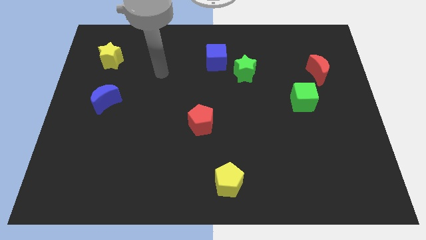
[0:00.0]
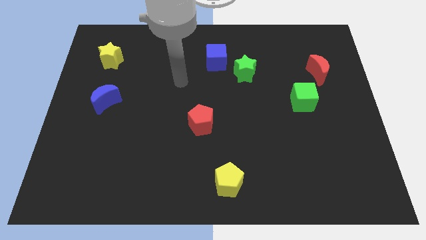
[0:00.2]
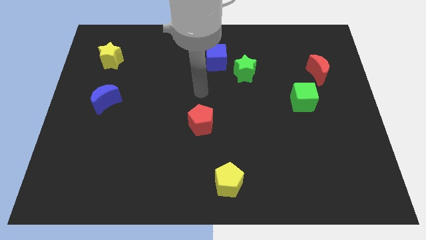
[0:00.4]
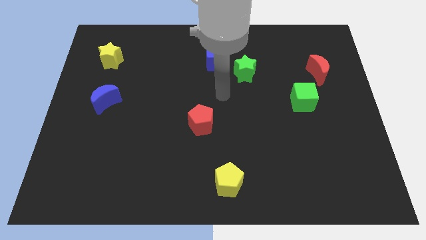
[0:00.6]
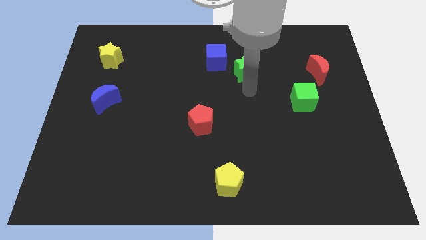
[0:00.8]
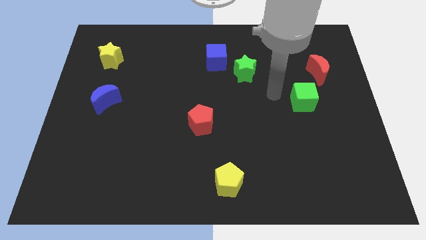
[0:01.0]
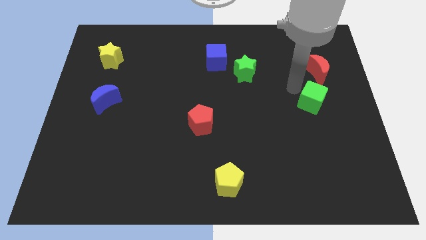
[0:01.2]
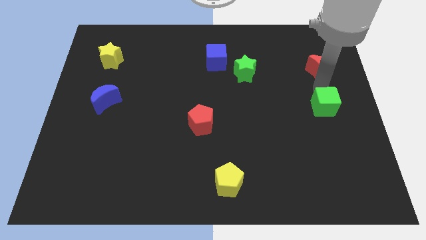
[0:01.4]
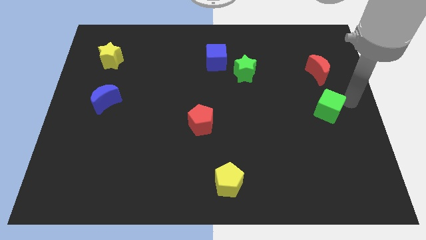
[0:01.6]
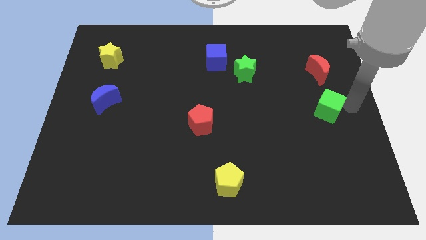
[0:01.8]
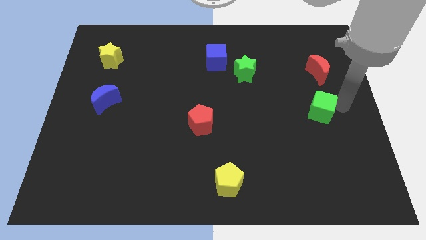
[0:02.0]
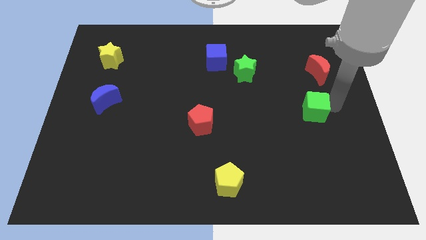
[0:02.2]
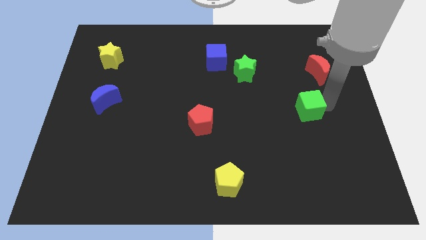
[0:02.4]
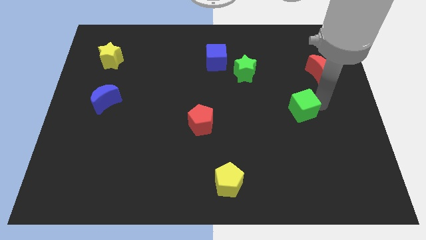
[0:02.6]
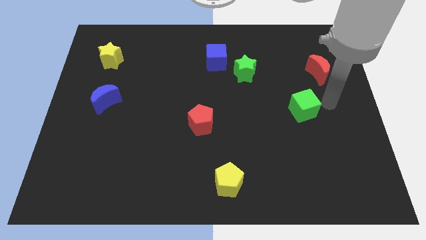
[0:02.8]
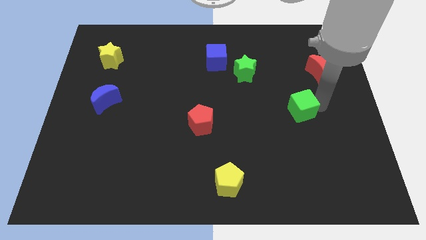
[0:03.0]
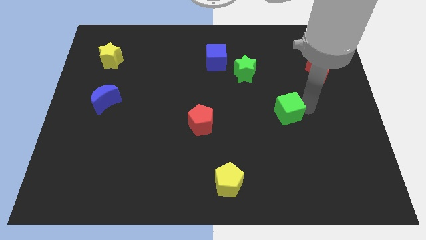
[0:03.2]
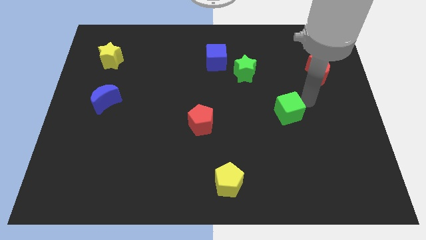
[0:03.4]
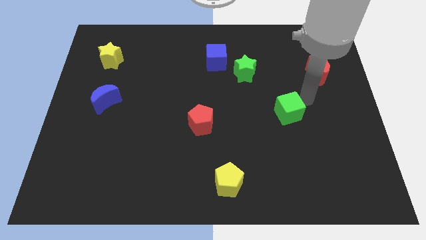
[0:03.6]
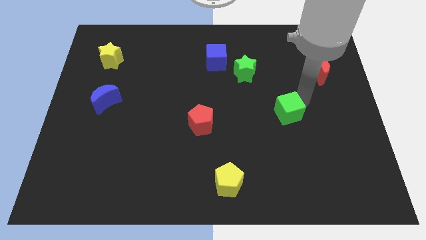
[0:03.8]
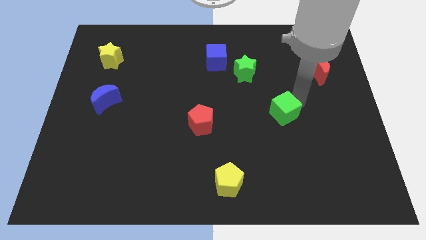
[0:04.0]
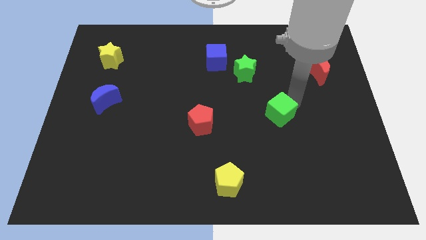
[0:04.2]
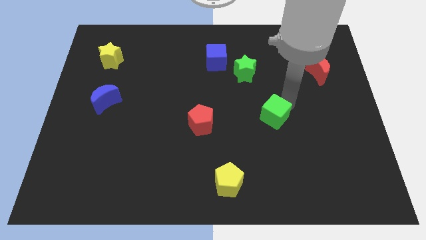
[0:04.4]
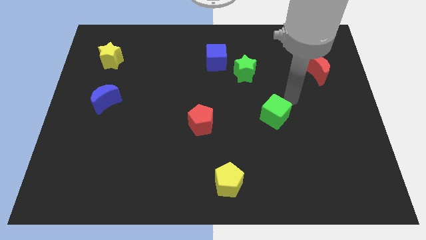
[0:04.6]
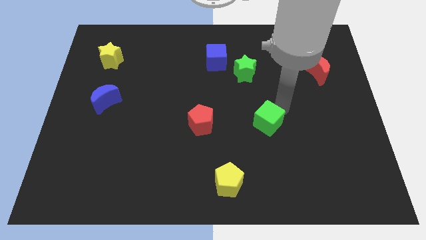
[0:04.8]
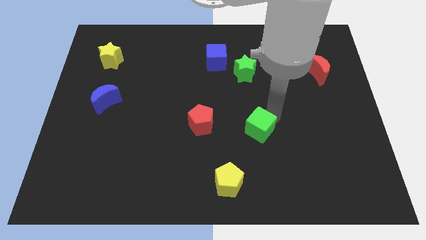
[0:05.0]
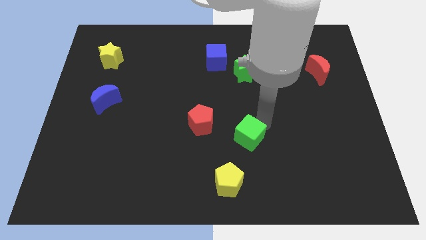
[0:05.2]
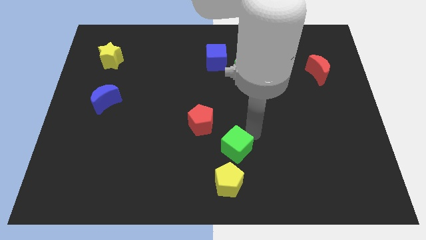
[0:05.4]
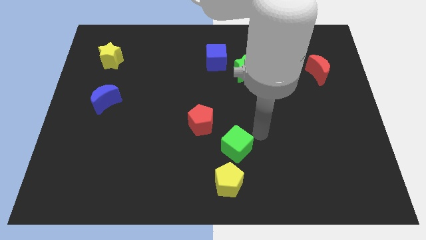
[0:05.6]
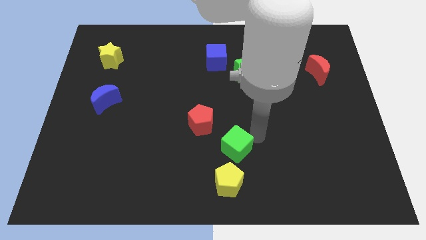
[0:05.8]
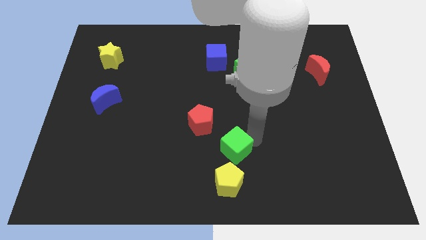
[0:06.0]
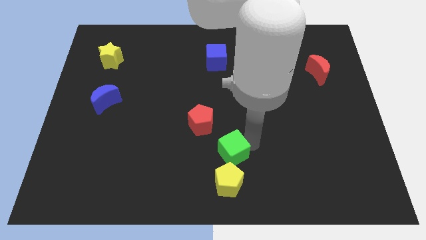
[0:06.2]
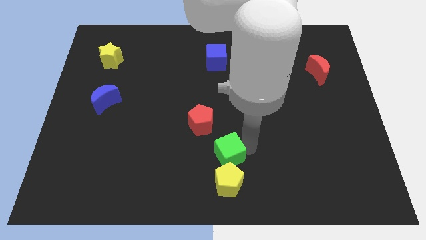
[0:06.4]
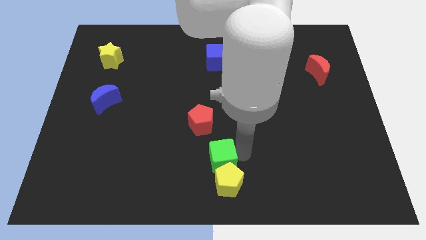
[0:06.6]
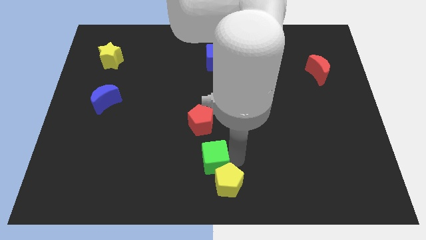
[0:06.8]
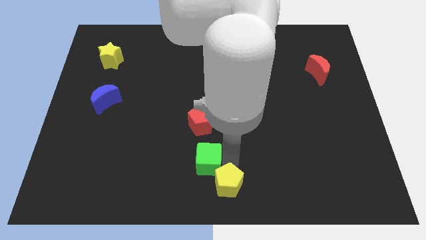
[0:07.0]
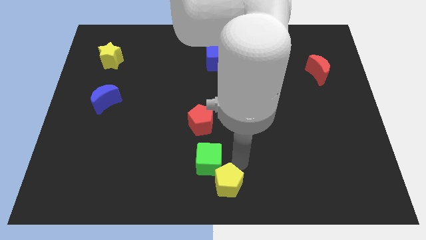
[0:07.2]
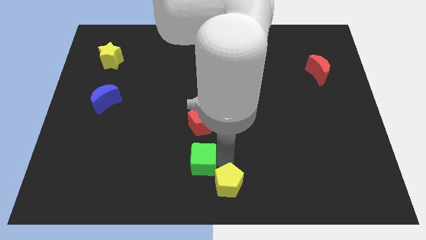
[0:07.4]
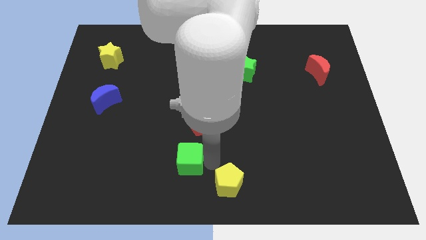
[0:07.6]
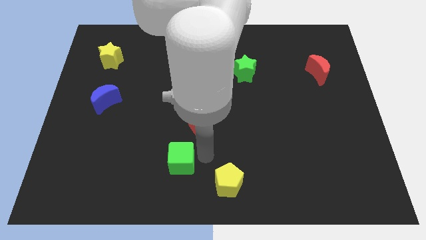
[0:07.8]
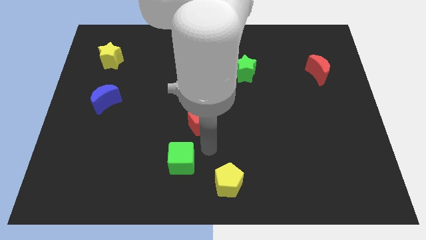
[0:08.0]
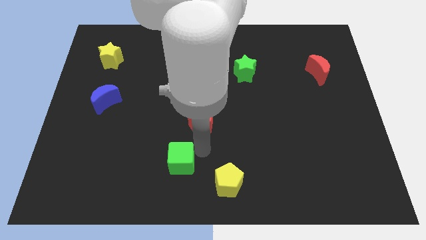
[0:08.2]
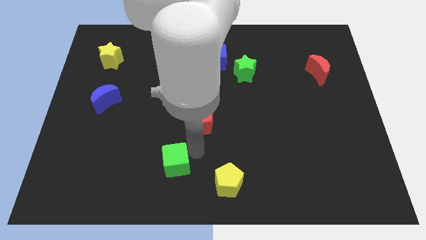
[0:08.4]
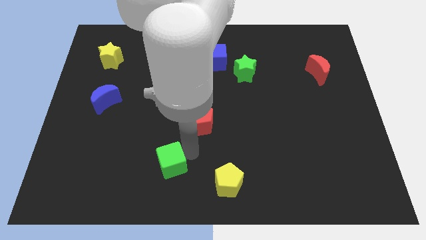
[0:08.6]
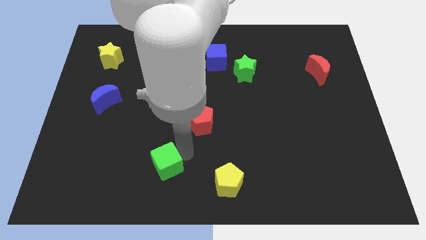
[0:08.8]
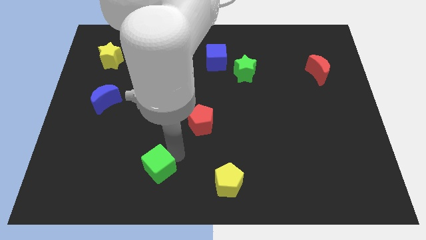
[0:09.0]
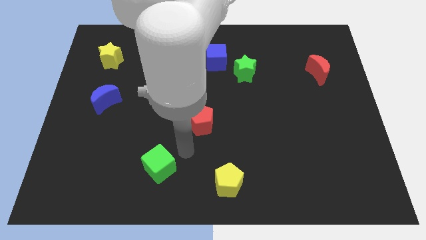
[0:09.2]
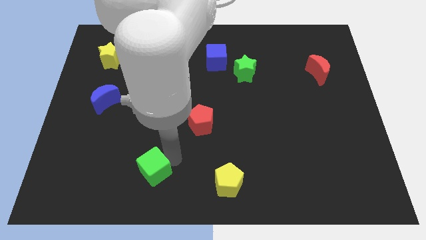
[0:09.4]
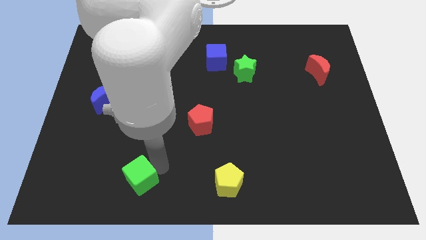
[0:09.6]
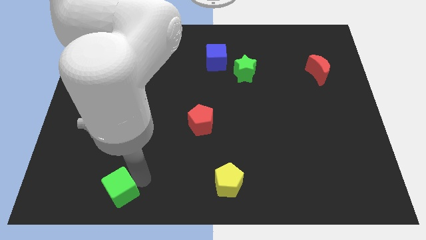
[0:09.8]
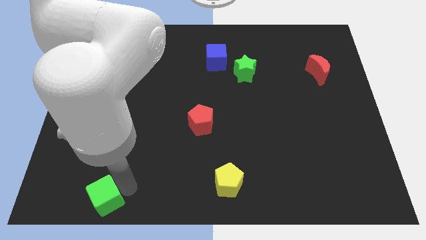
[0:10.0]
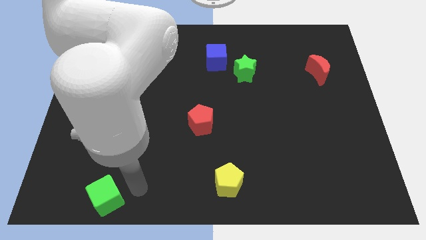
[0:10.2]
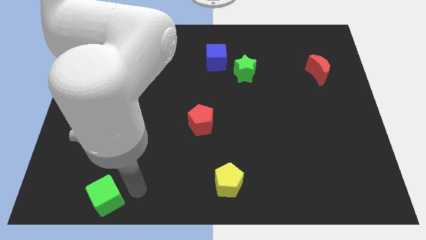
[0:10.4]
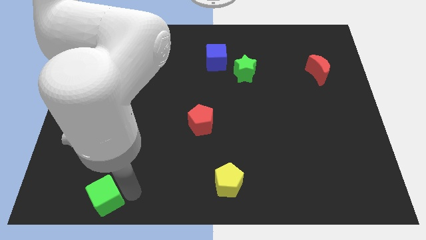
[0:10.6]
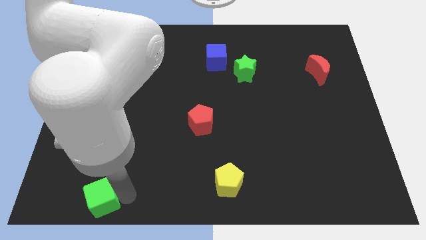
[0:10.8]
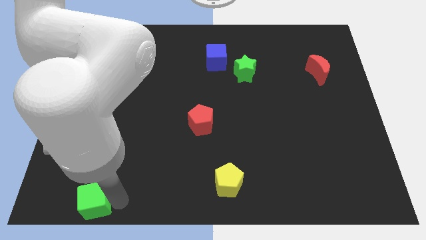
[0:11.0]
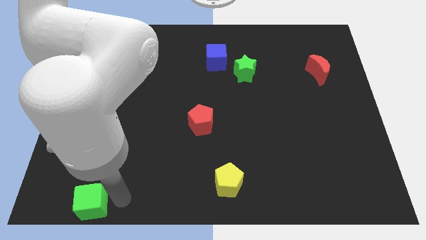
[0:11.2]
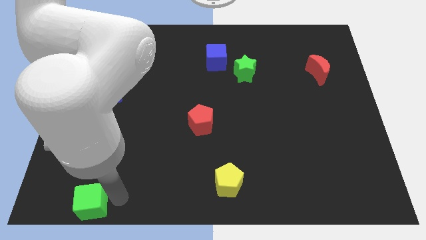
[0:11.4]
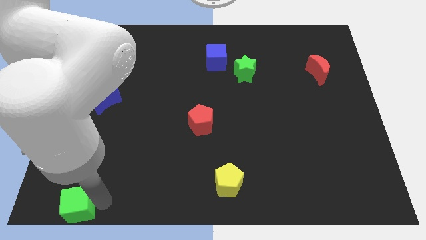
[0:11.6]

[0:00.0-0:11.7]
put the green cube to the bottom left

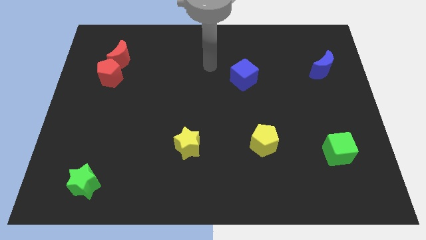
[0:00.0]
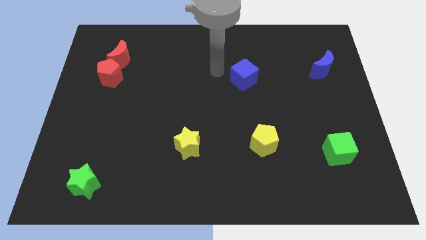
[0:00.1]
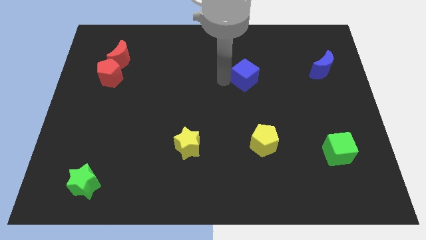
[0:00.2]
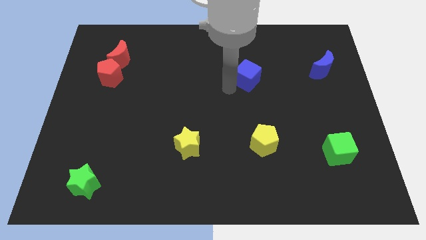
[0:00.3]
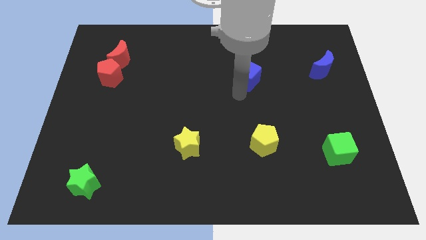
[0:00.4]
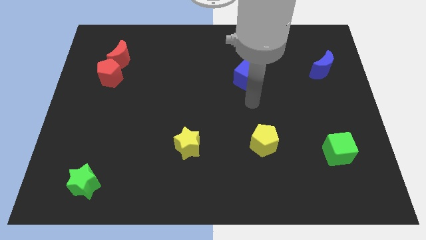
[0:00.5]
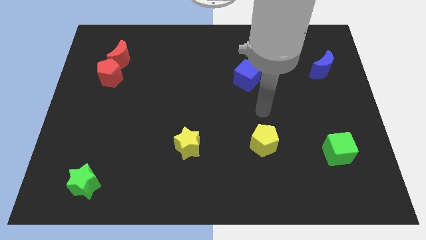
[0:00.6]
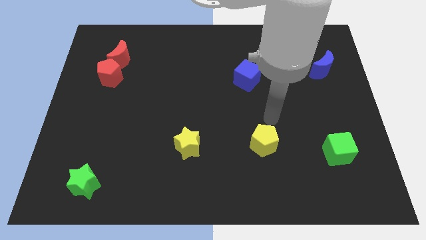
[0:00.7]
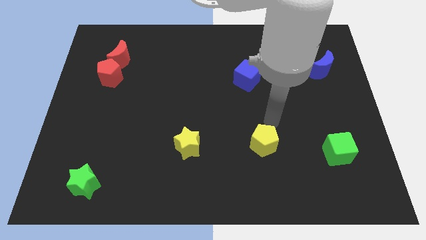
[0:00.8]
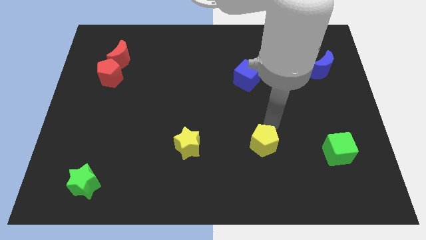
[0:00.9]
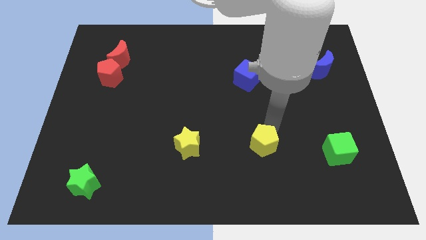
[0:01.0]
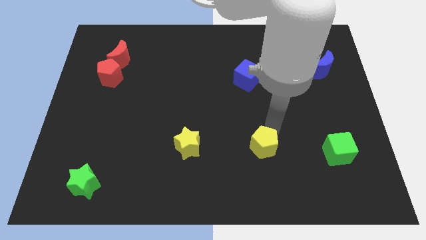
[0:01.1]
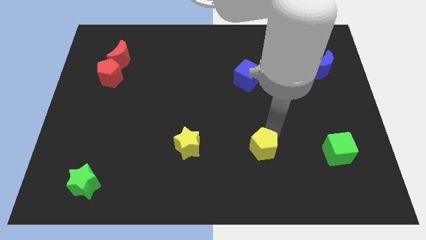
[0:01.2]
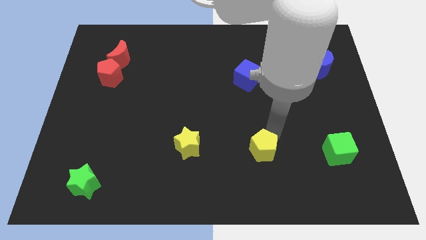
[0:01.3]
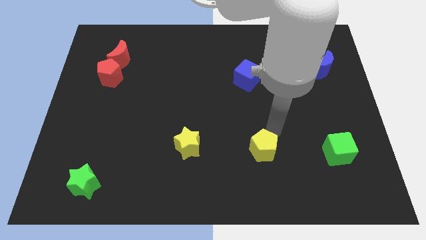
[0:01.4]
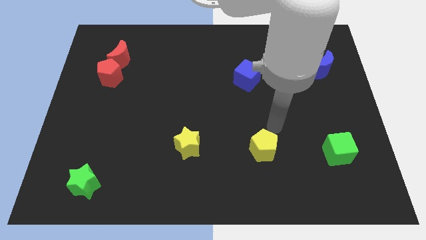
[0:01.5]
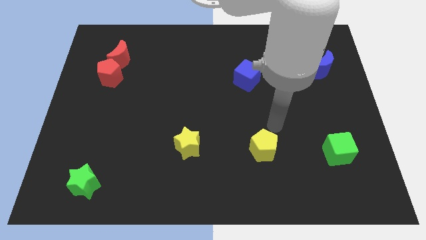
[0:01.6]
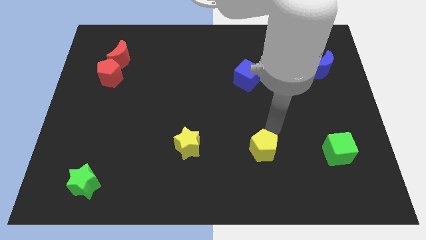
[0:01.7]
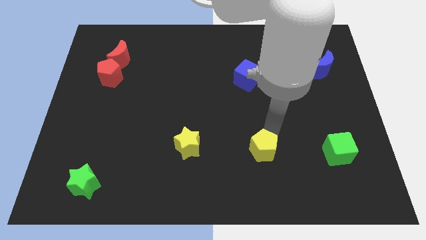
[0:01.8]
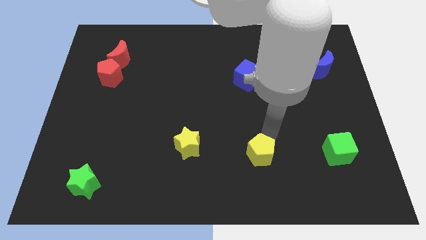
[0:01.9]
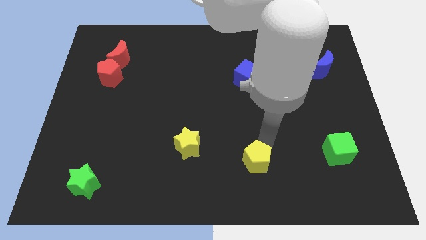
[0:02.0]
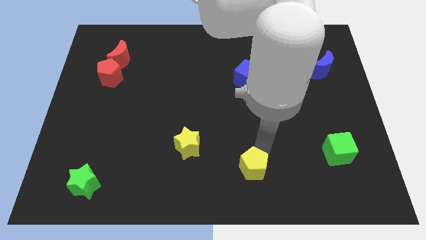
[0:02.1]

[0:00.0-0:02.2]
move the yellow pentagon to the bottom side
